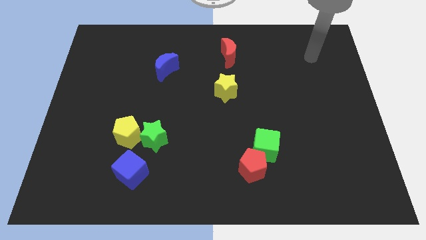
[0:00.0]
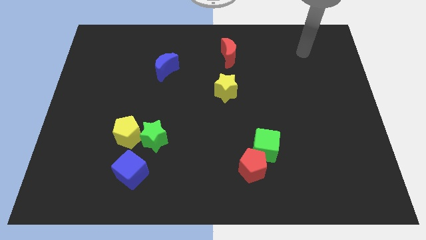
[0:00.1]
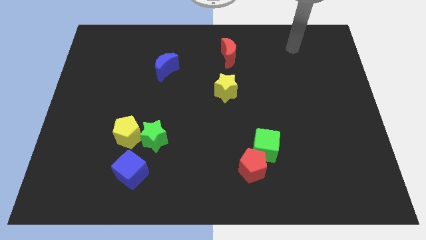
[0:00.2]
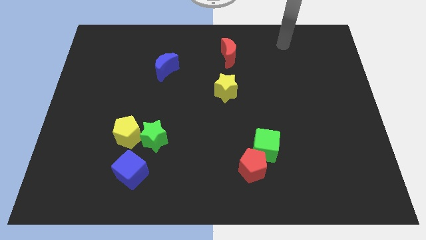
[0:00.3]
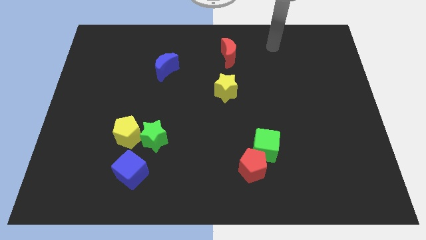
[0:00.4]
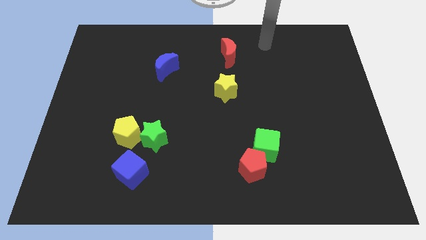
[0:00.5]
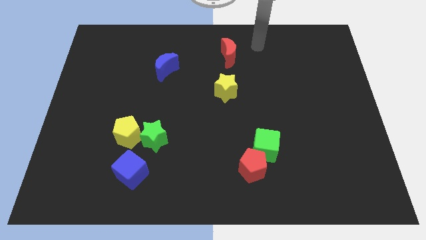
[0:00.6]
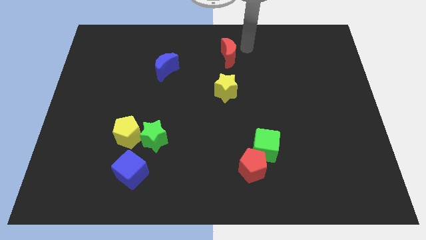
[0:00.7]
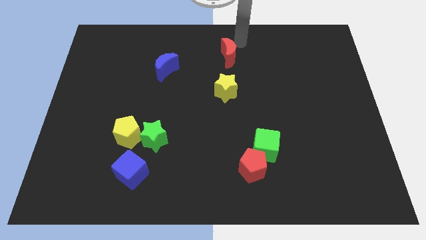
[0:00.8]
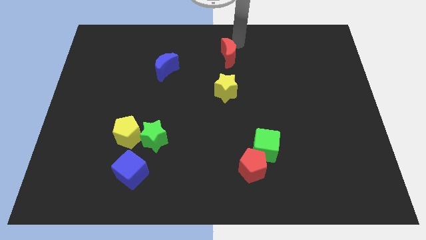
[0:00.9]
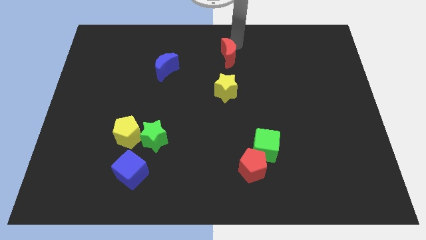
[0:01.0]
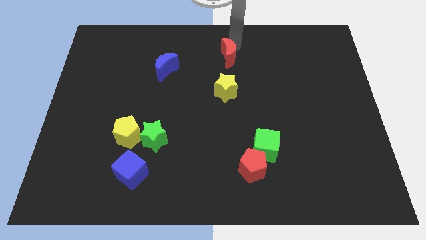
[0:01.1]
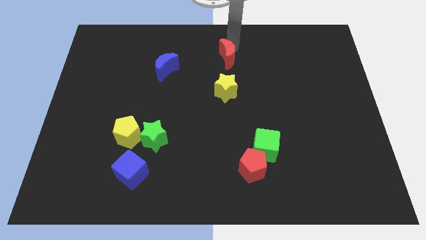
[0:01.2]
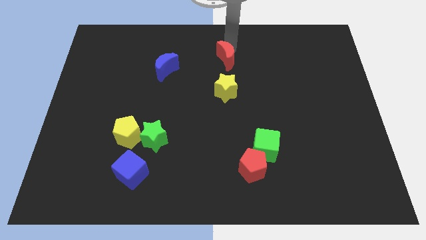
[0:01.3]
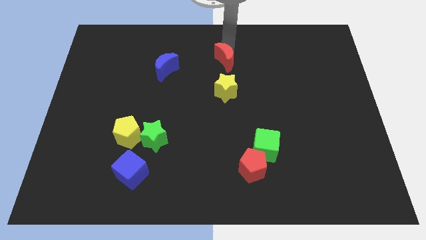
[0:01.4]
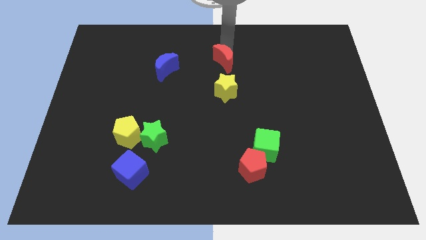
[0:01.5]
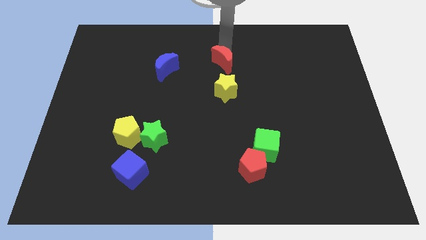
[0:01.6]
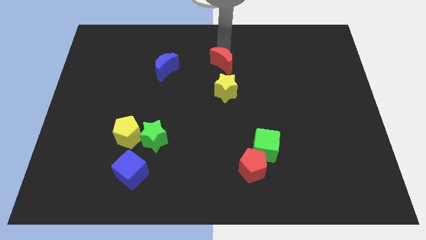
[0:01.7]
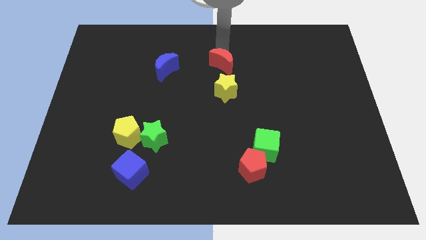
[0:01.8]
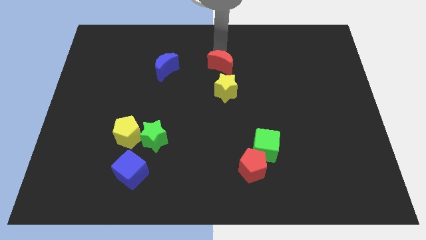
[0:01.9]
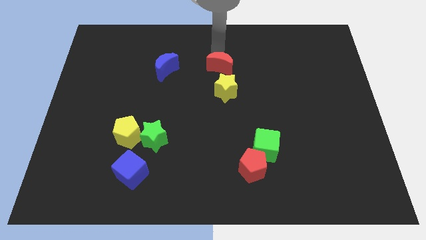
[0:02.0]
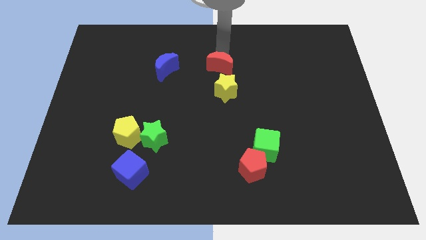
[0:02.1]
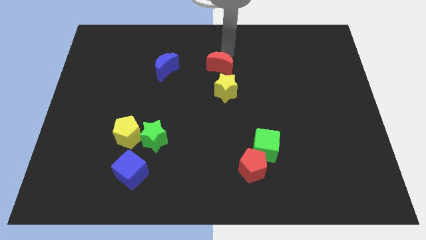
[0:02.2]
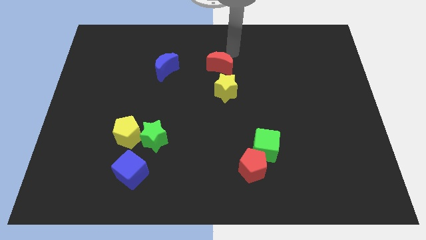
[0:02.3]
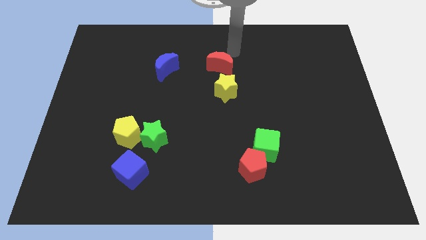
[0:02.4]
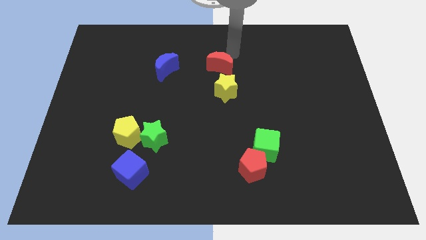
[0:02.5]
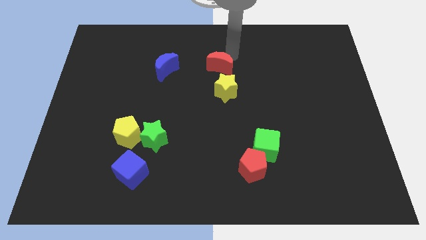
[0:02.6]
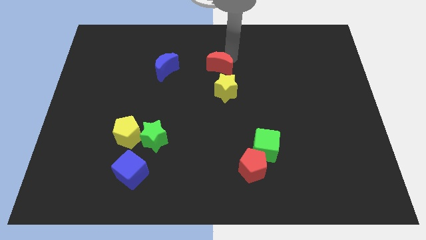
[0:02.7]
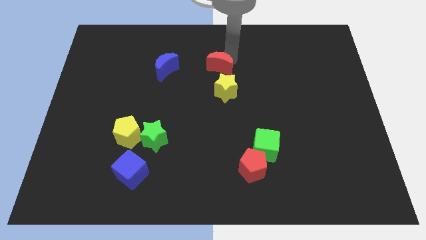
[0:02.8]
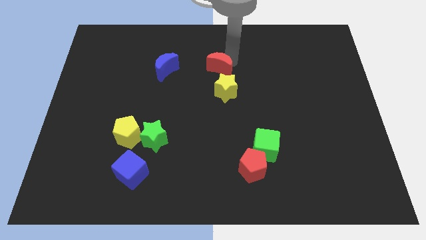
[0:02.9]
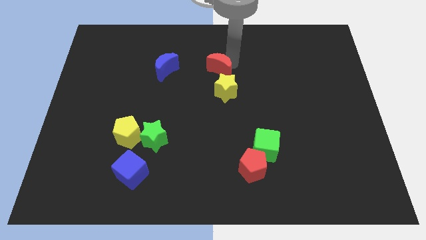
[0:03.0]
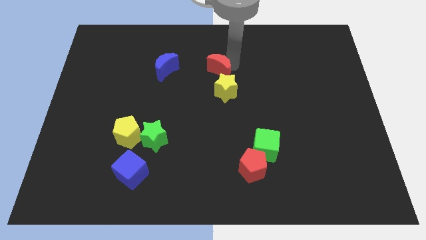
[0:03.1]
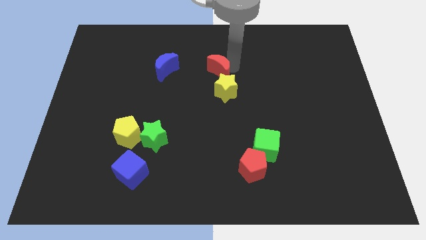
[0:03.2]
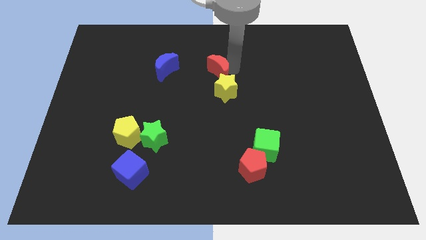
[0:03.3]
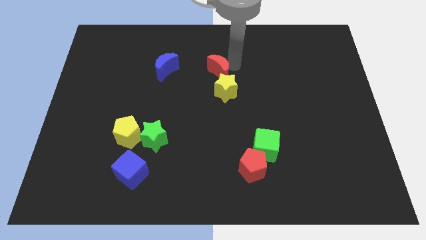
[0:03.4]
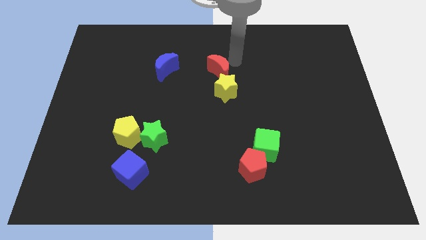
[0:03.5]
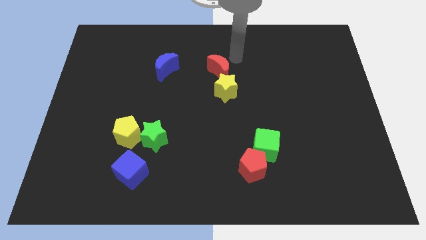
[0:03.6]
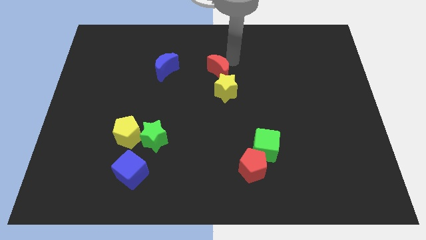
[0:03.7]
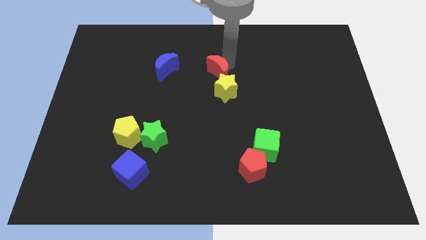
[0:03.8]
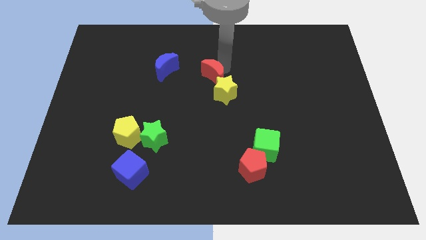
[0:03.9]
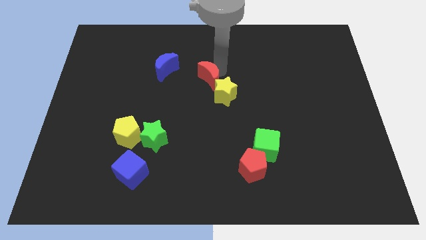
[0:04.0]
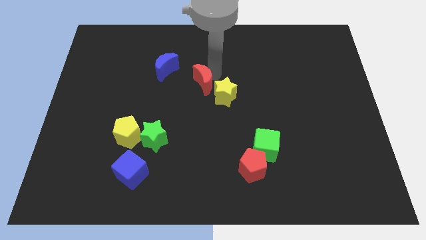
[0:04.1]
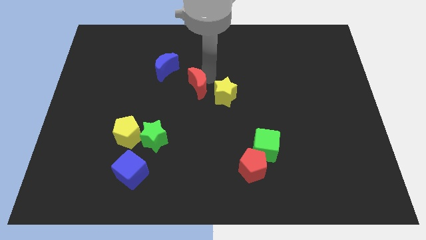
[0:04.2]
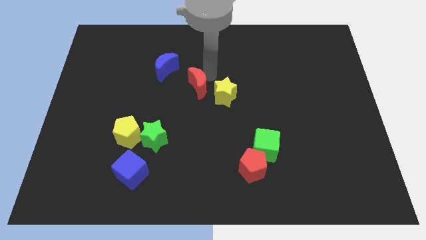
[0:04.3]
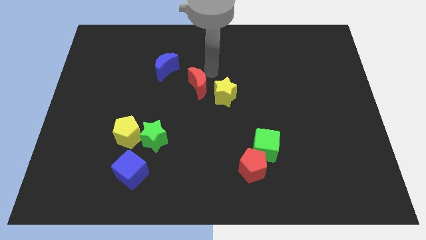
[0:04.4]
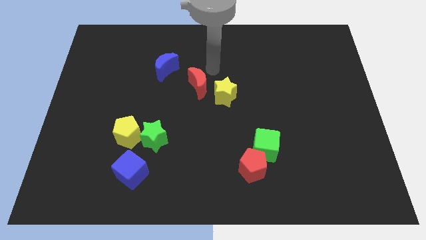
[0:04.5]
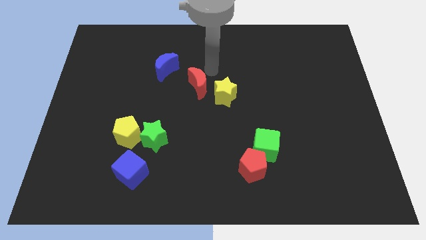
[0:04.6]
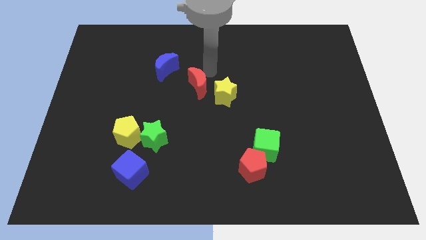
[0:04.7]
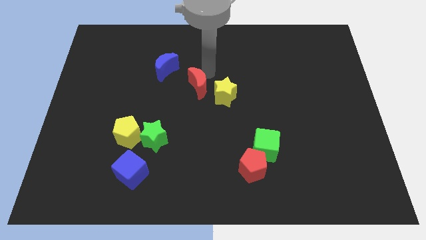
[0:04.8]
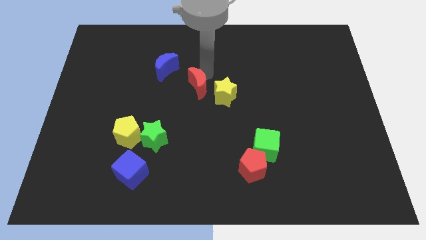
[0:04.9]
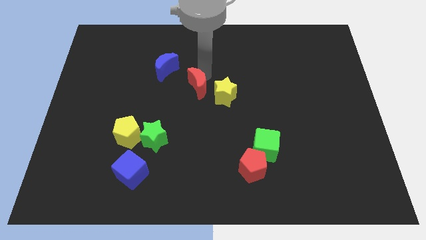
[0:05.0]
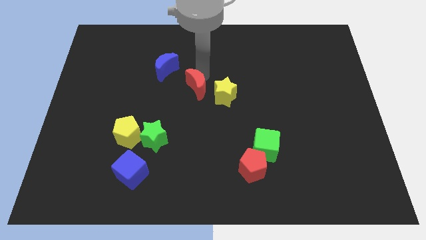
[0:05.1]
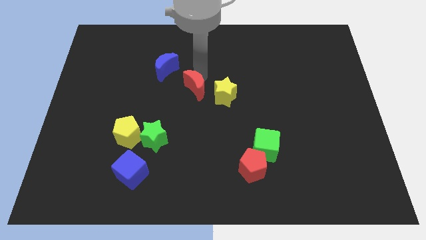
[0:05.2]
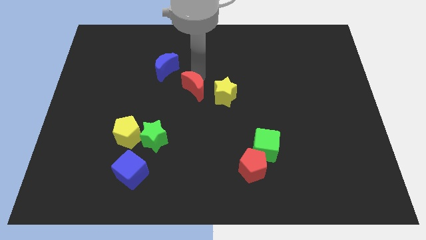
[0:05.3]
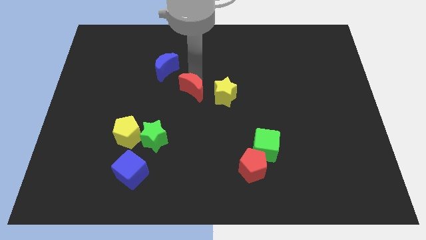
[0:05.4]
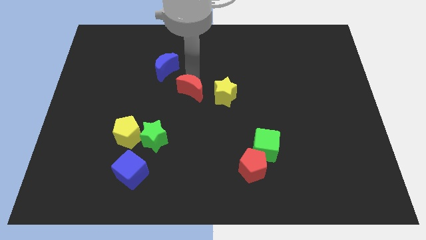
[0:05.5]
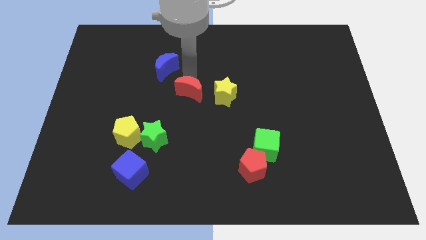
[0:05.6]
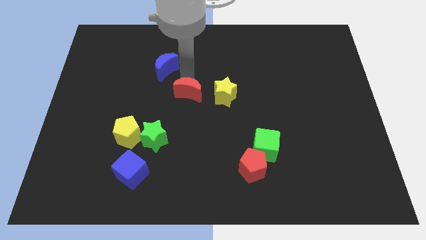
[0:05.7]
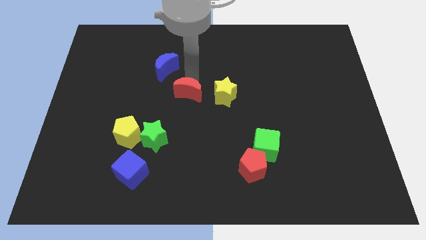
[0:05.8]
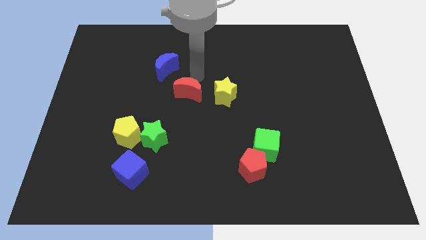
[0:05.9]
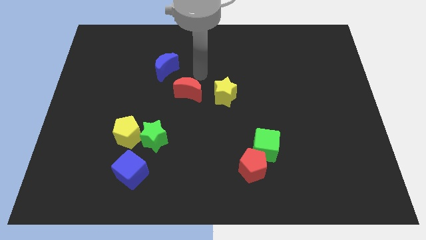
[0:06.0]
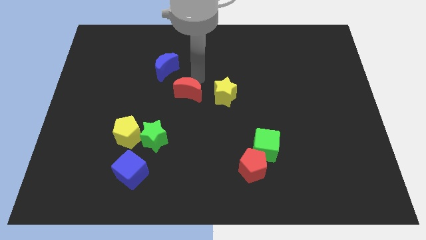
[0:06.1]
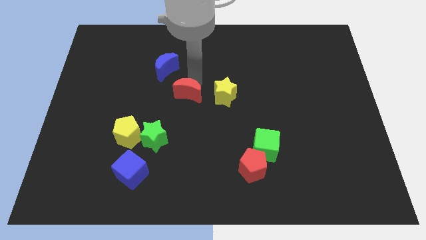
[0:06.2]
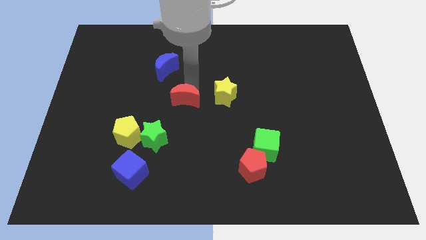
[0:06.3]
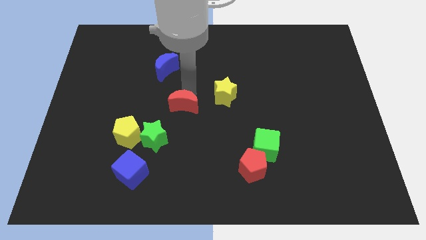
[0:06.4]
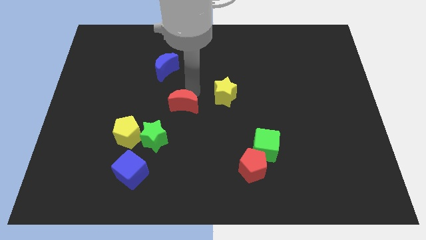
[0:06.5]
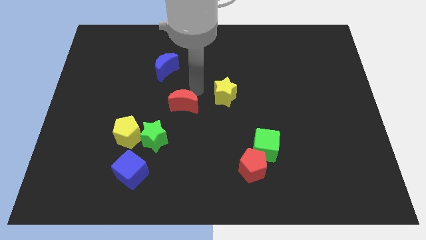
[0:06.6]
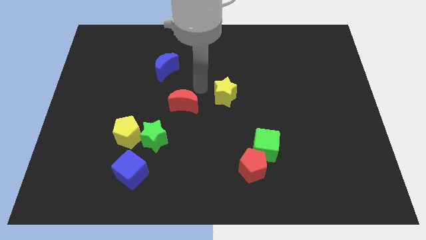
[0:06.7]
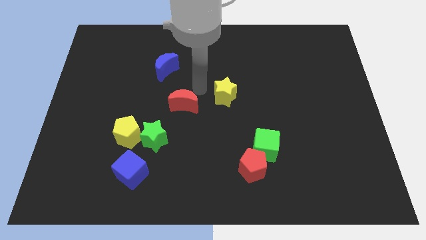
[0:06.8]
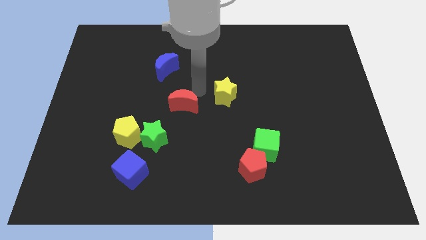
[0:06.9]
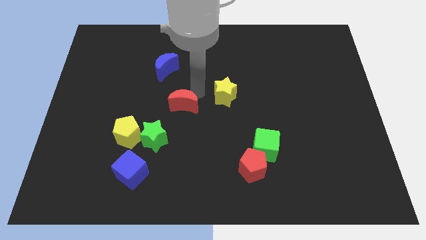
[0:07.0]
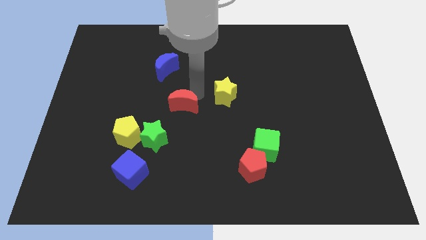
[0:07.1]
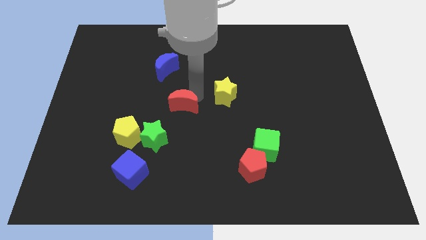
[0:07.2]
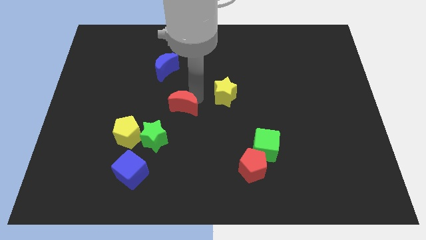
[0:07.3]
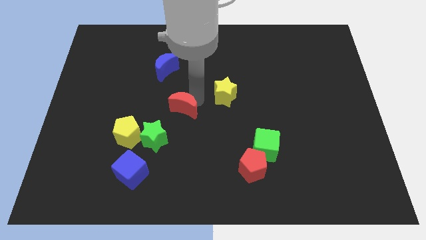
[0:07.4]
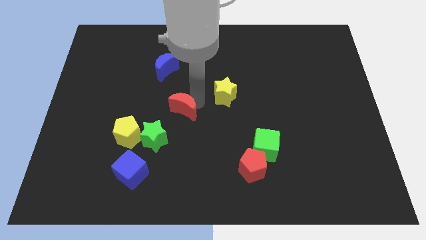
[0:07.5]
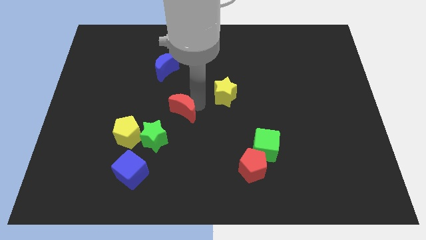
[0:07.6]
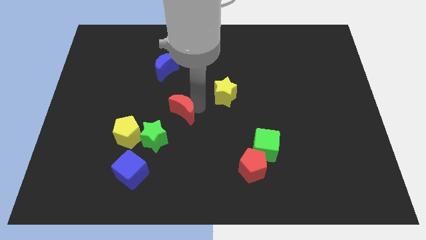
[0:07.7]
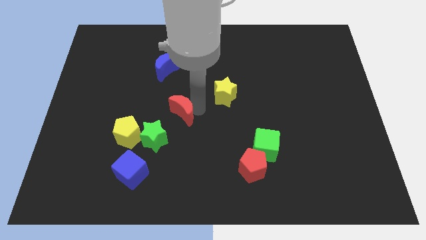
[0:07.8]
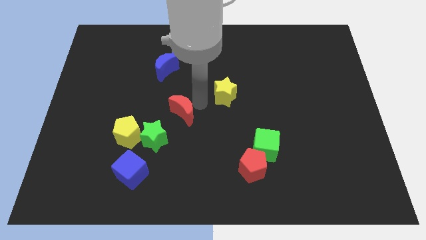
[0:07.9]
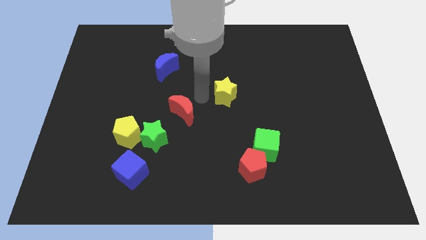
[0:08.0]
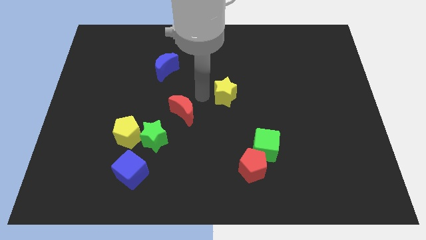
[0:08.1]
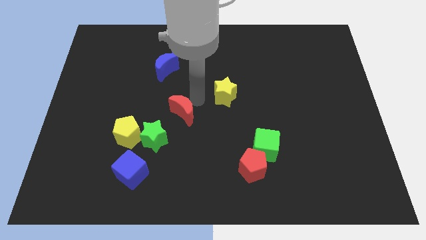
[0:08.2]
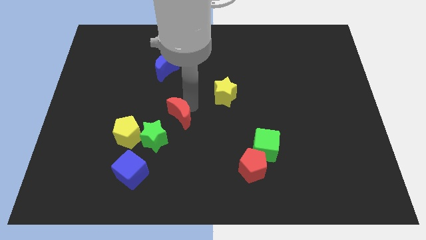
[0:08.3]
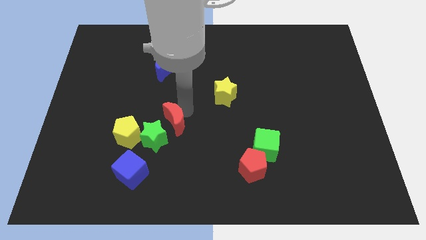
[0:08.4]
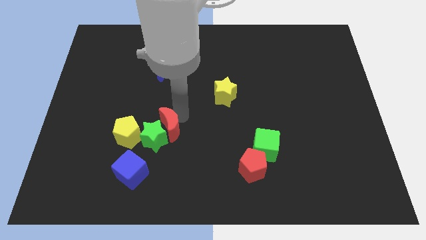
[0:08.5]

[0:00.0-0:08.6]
move the red moon close to the green star
